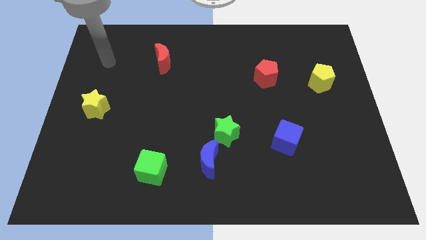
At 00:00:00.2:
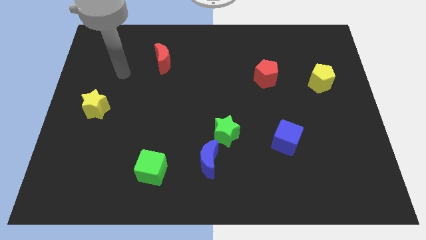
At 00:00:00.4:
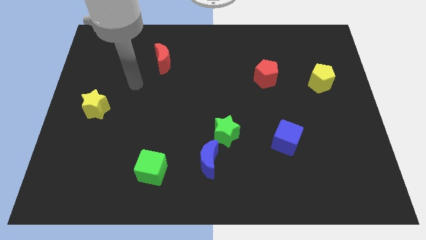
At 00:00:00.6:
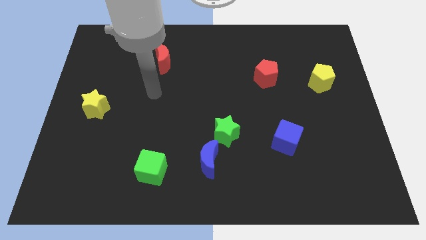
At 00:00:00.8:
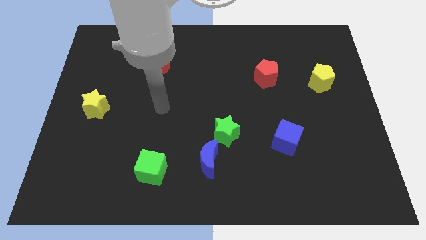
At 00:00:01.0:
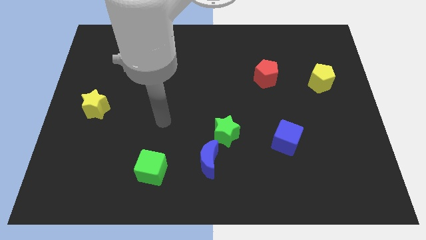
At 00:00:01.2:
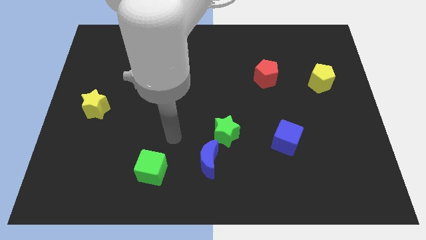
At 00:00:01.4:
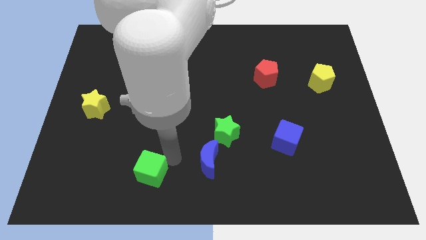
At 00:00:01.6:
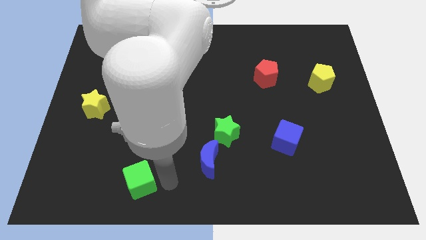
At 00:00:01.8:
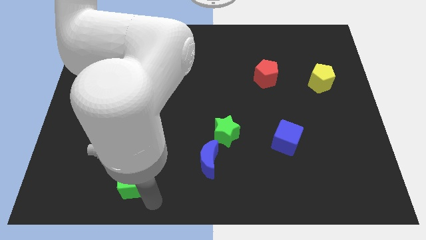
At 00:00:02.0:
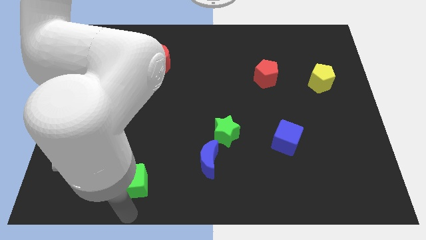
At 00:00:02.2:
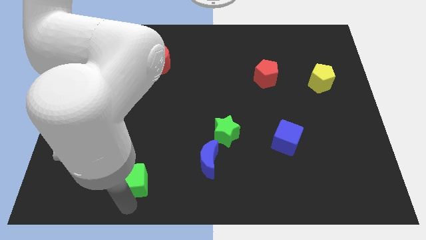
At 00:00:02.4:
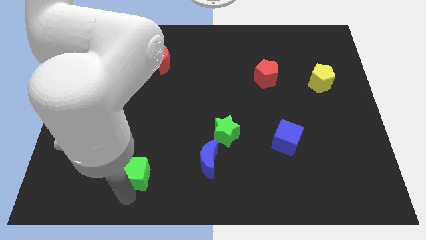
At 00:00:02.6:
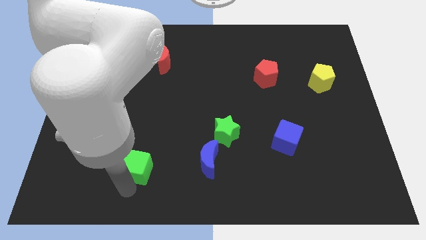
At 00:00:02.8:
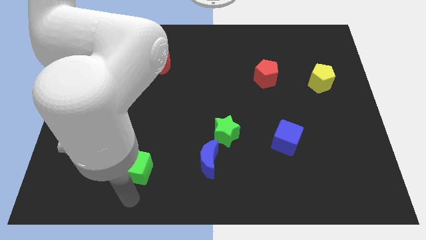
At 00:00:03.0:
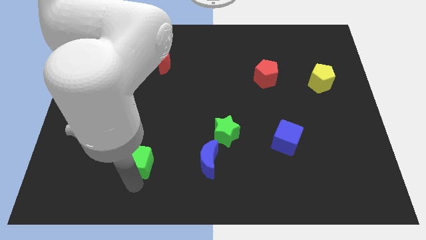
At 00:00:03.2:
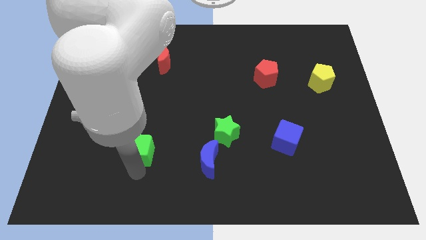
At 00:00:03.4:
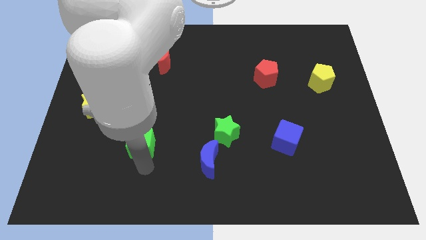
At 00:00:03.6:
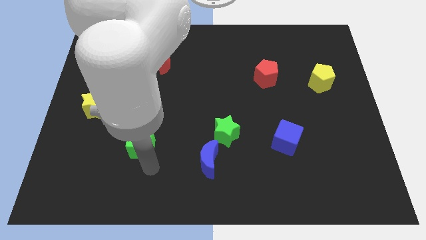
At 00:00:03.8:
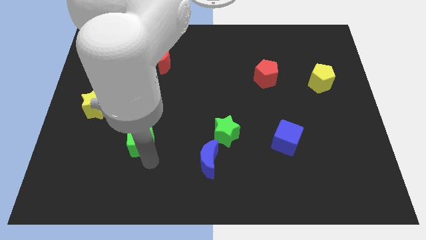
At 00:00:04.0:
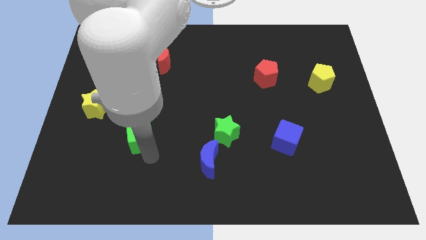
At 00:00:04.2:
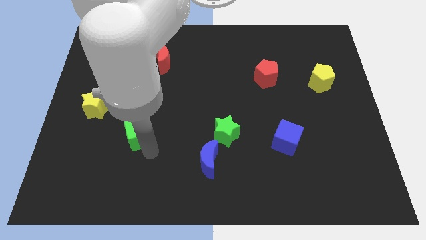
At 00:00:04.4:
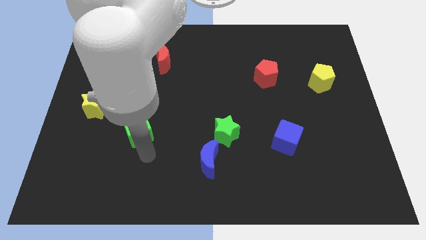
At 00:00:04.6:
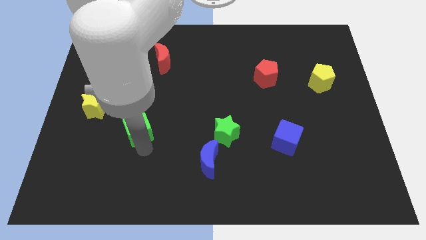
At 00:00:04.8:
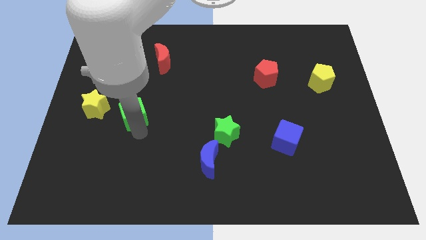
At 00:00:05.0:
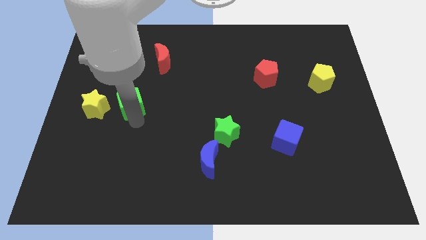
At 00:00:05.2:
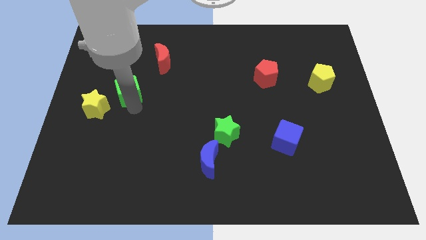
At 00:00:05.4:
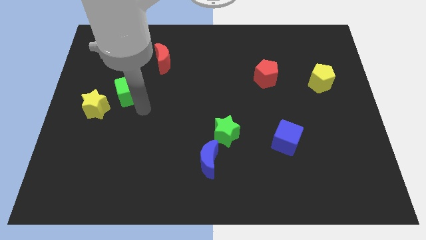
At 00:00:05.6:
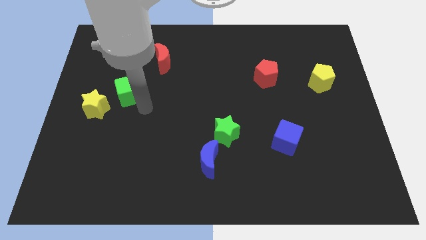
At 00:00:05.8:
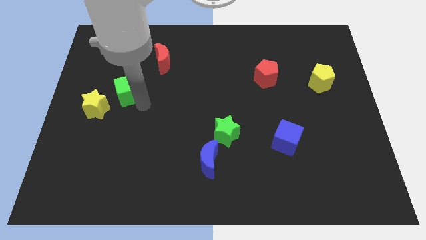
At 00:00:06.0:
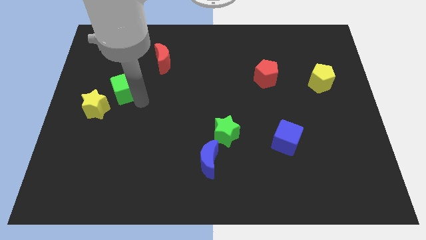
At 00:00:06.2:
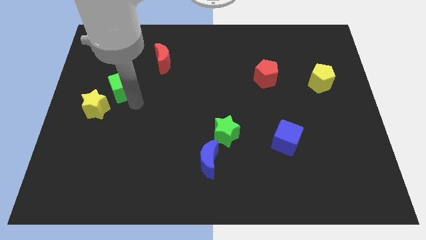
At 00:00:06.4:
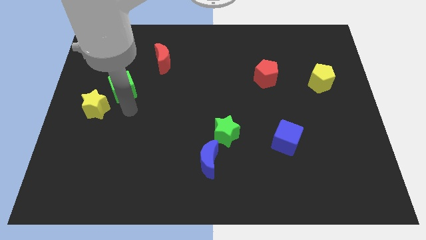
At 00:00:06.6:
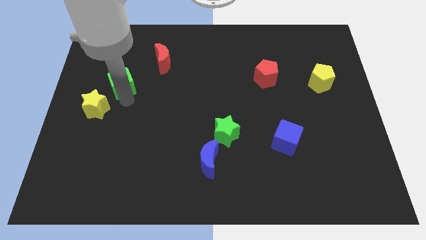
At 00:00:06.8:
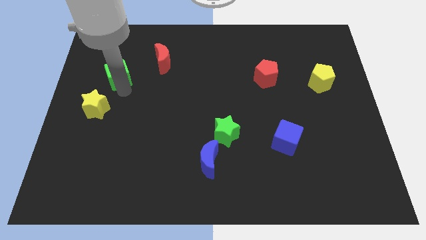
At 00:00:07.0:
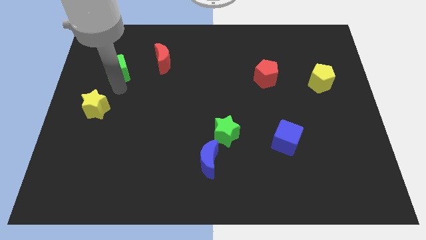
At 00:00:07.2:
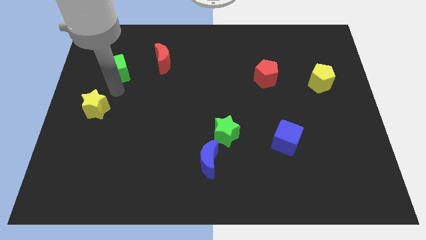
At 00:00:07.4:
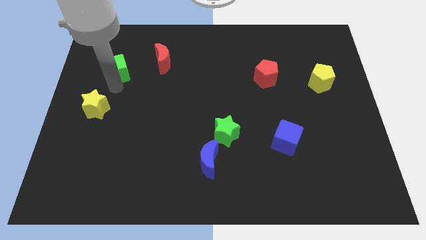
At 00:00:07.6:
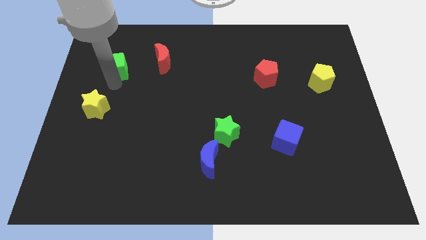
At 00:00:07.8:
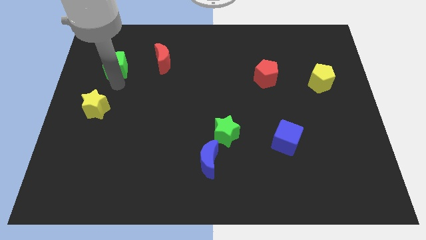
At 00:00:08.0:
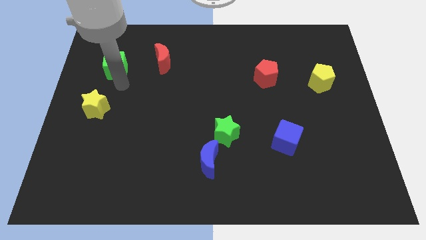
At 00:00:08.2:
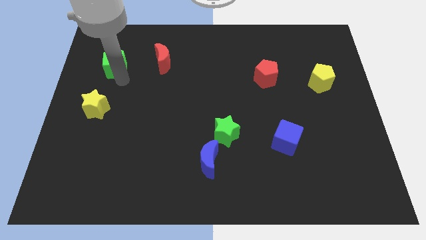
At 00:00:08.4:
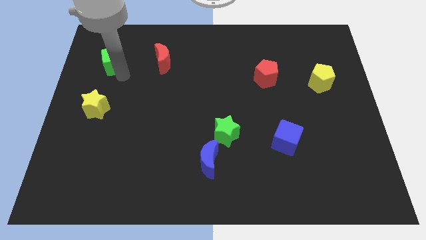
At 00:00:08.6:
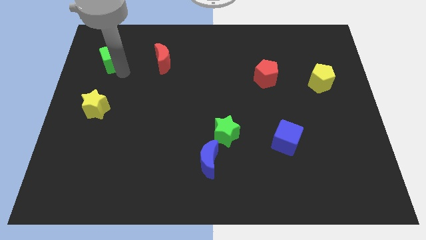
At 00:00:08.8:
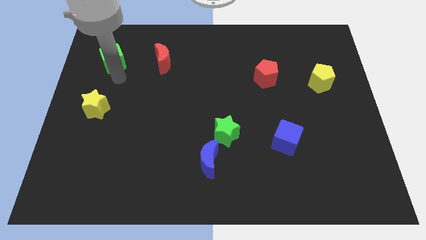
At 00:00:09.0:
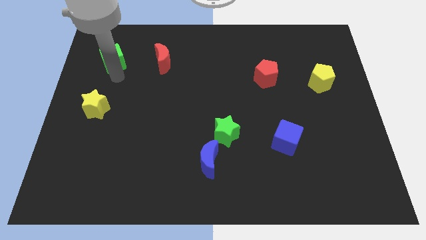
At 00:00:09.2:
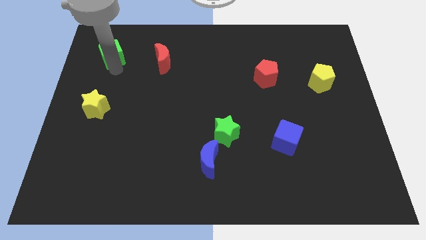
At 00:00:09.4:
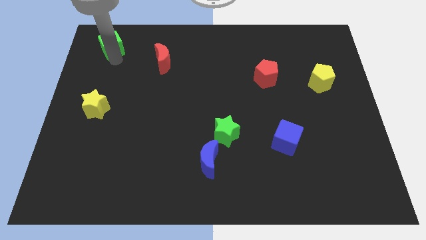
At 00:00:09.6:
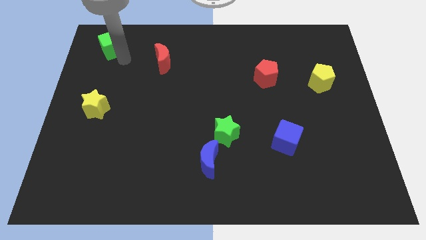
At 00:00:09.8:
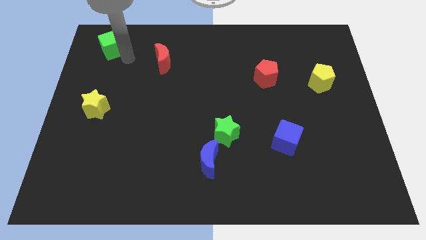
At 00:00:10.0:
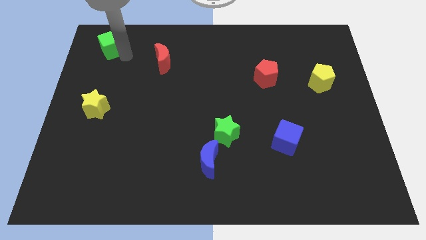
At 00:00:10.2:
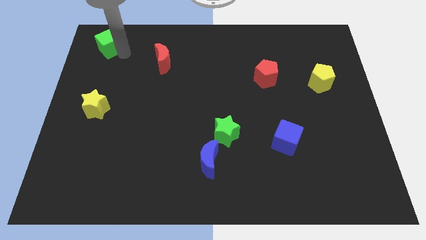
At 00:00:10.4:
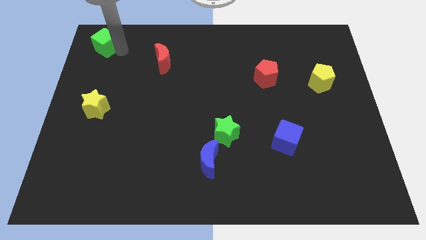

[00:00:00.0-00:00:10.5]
slide the green cube to the top left corner
